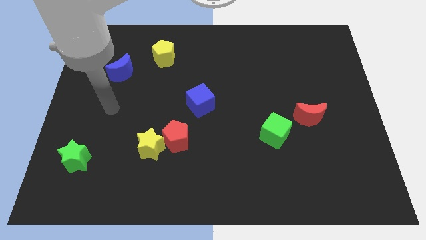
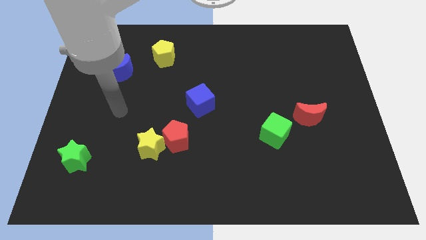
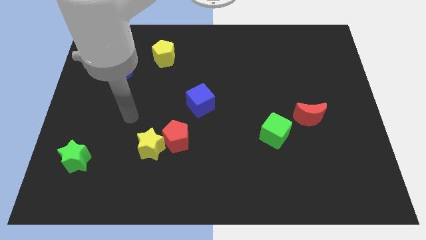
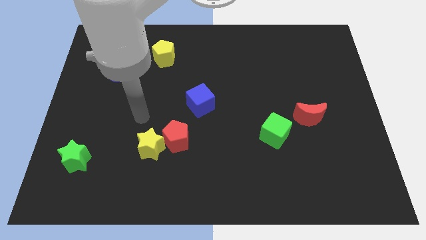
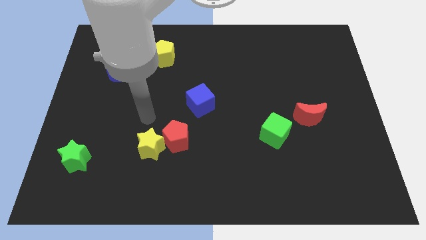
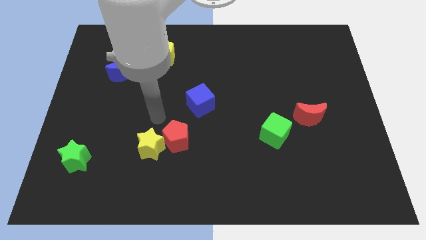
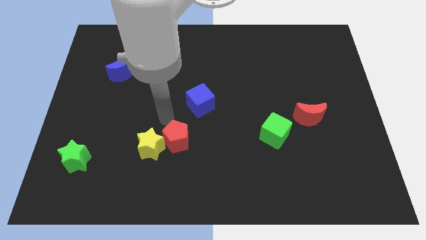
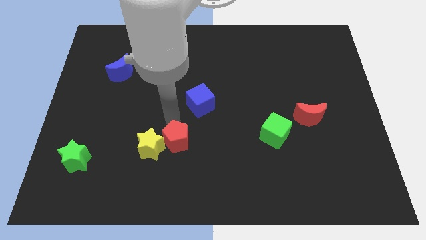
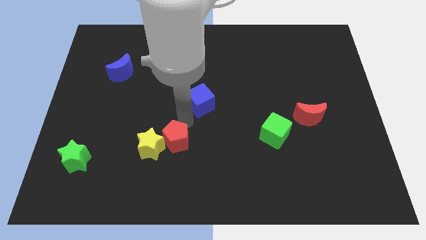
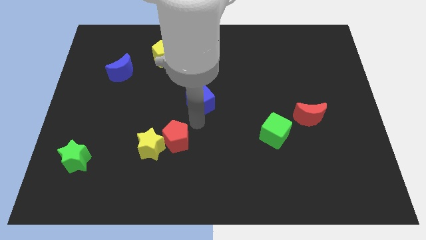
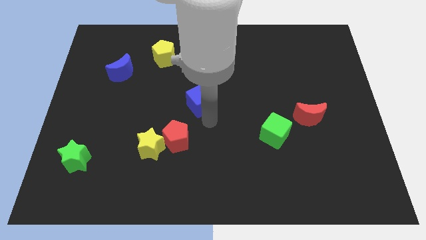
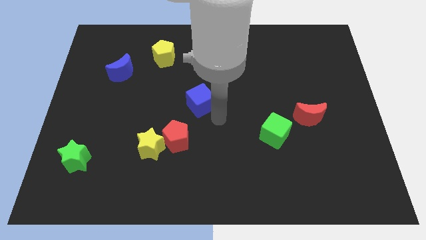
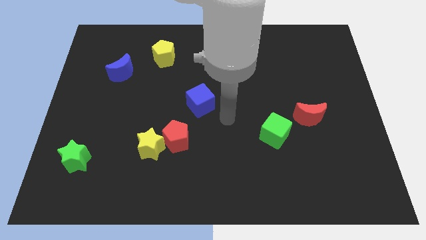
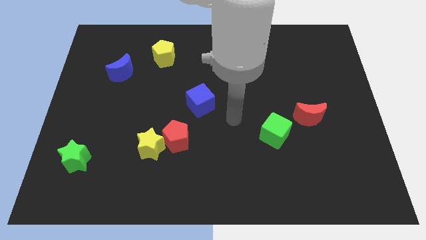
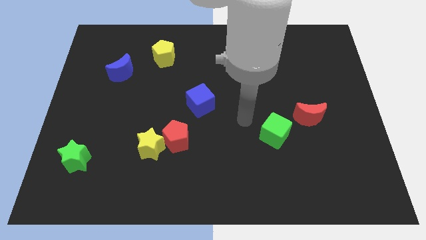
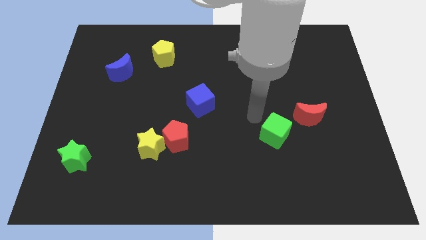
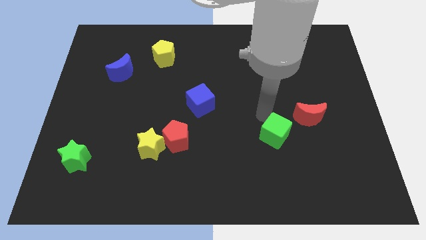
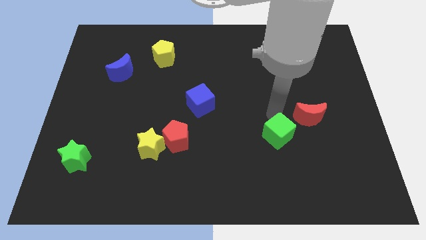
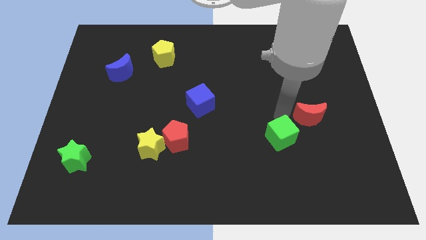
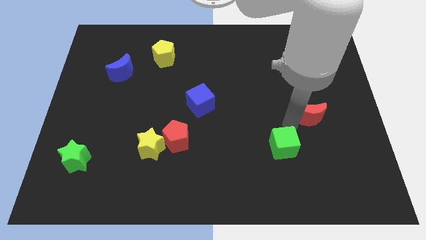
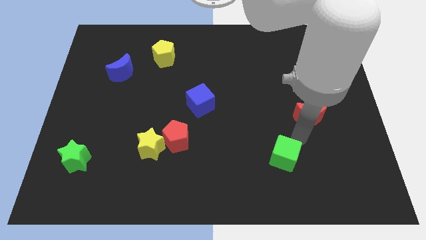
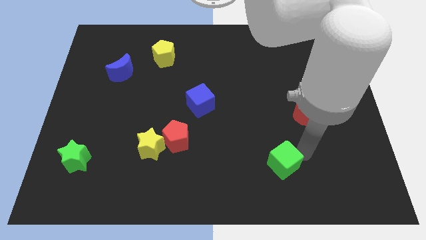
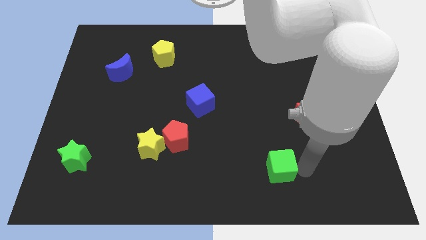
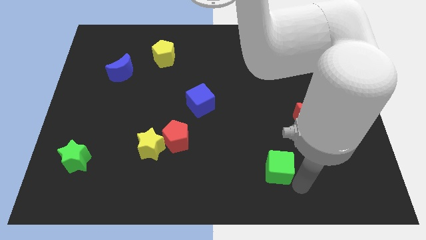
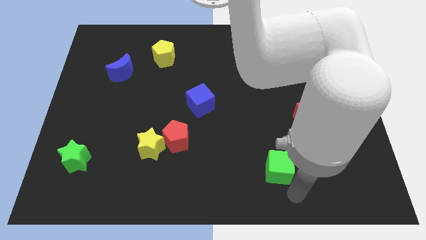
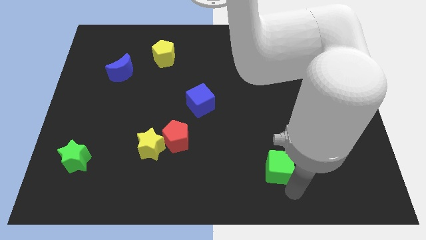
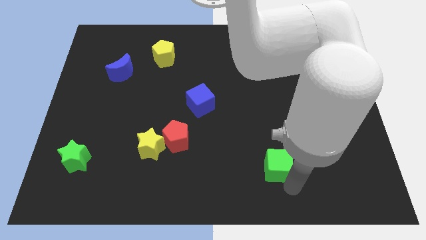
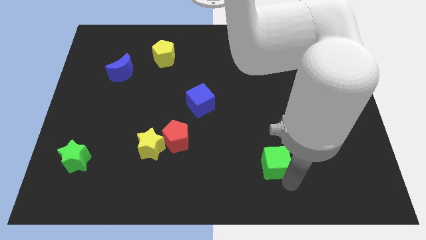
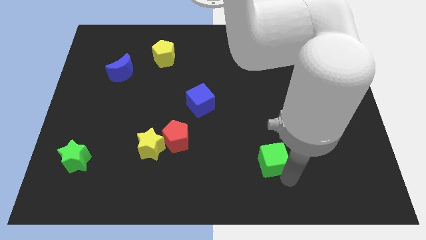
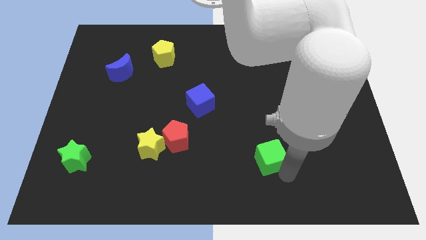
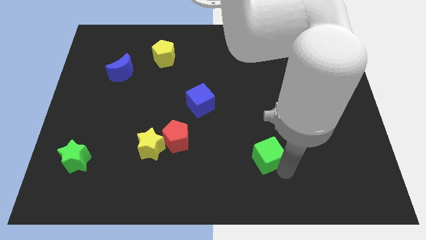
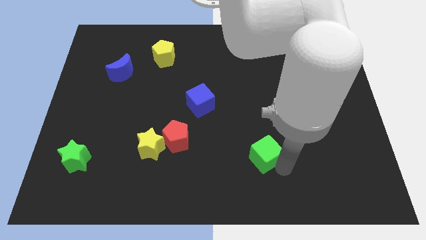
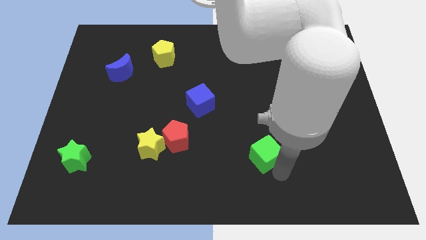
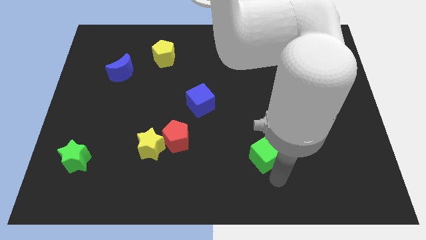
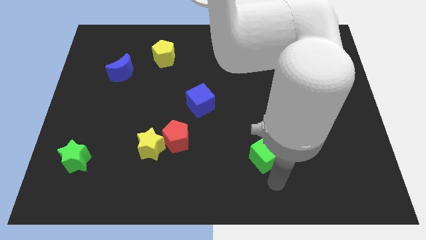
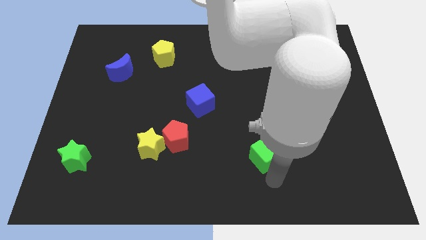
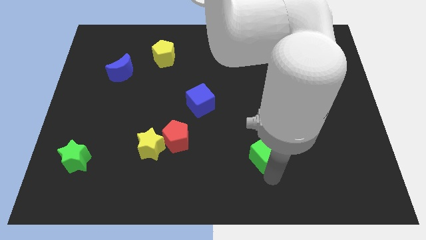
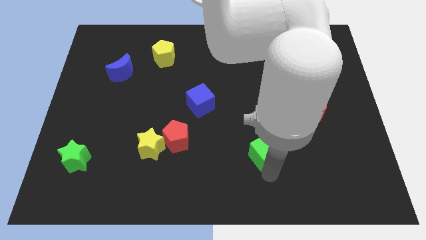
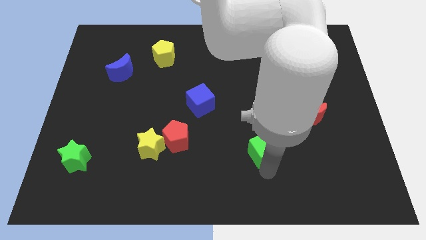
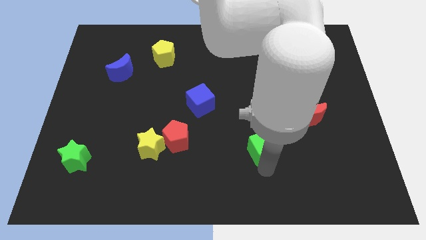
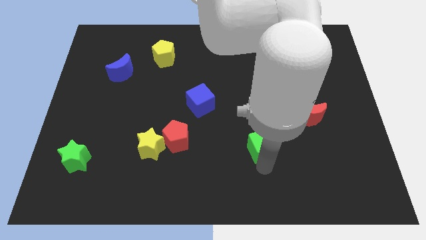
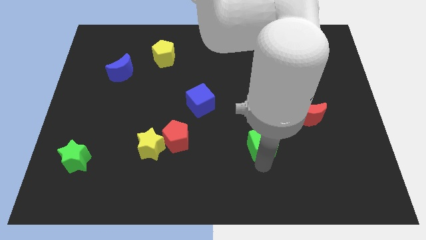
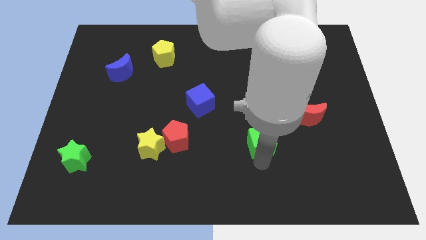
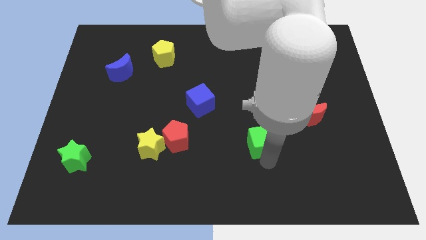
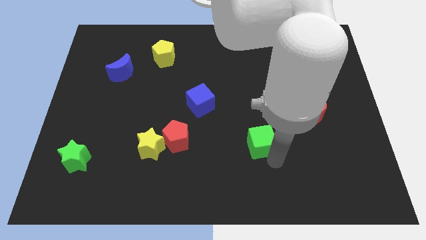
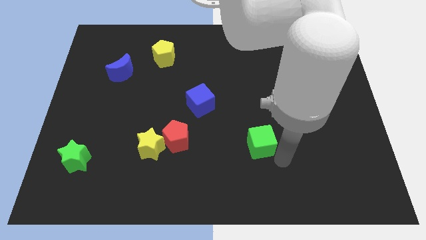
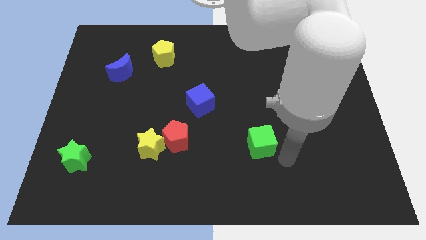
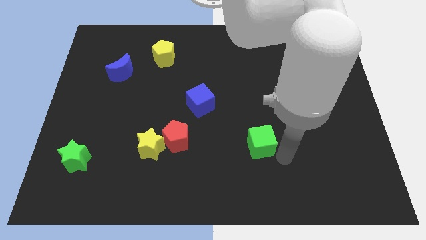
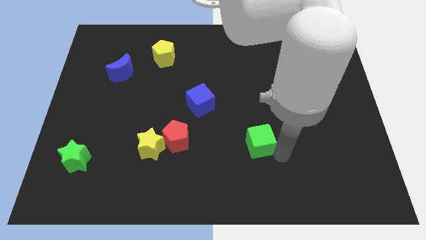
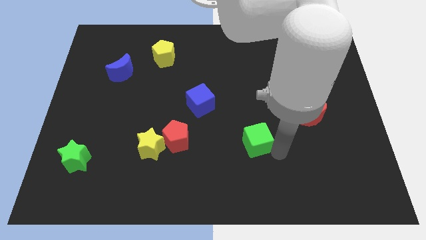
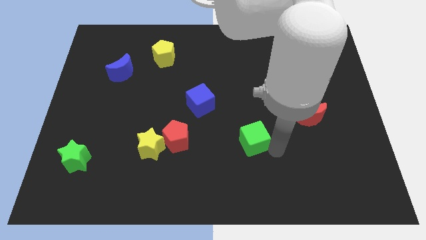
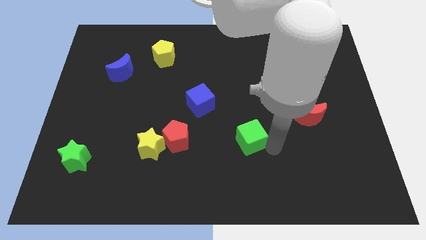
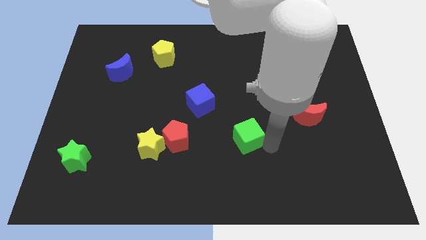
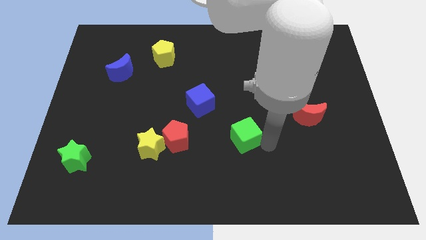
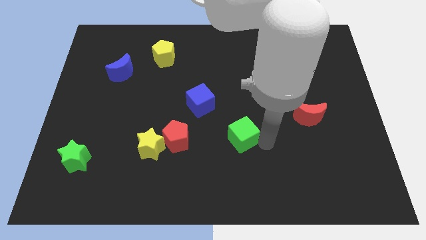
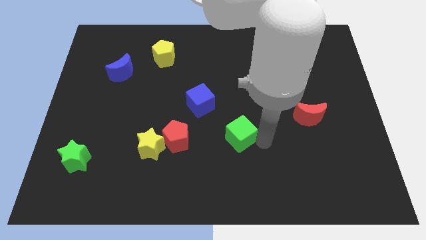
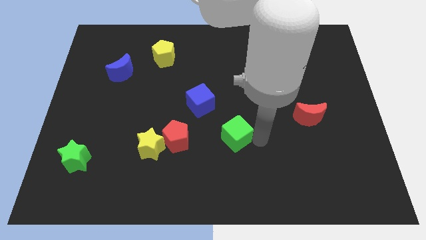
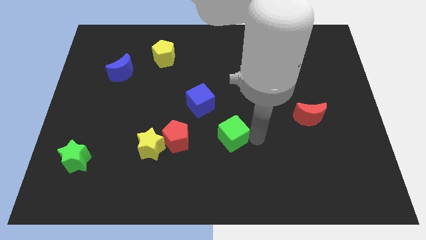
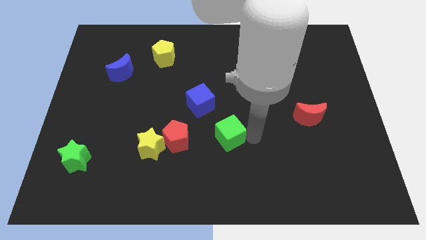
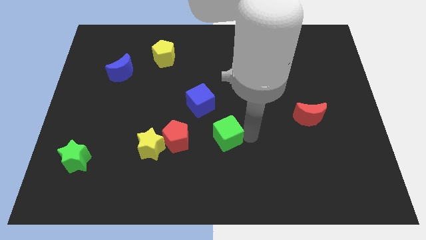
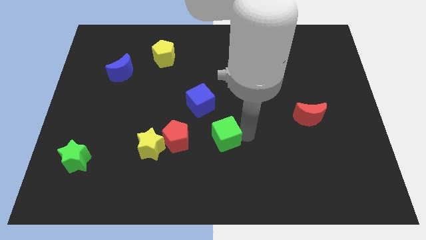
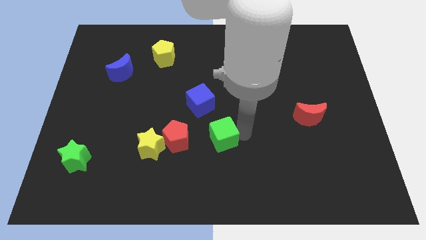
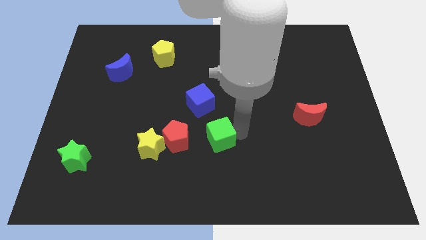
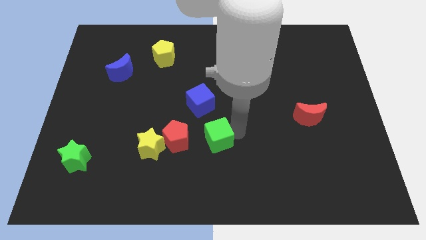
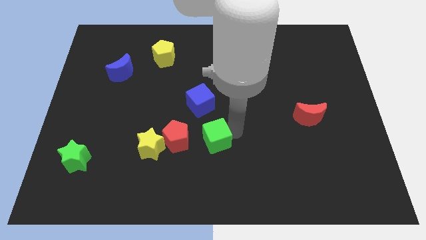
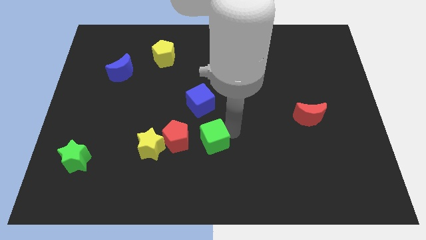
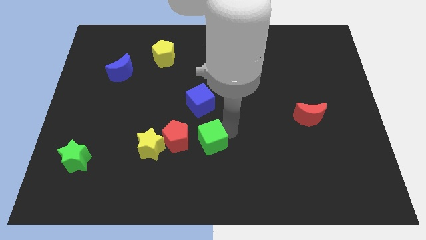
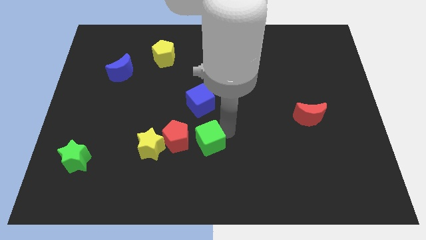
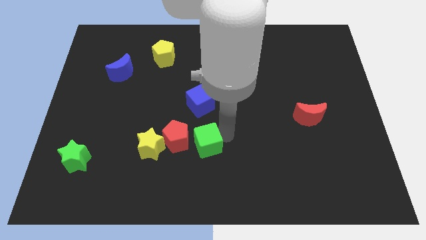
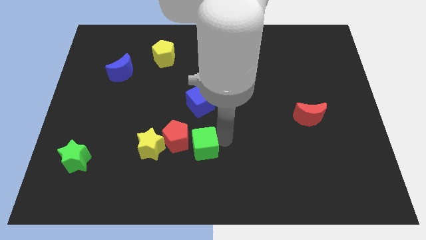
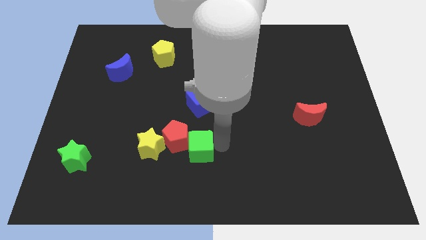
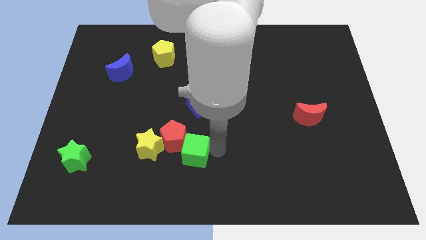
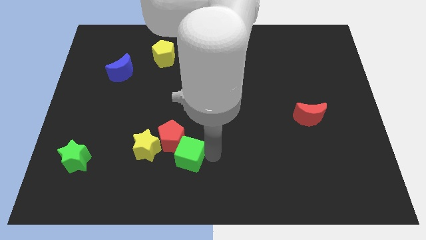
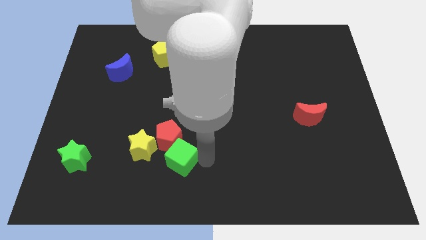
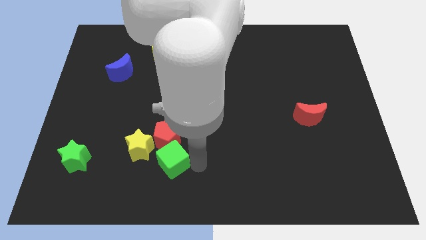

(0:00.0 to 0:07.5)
slide the green cube left

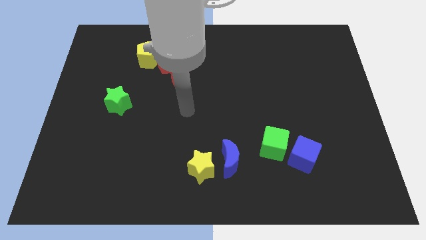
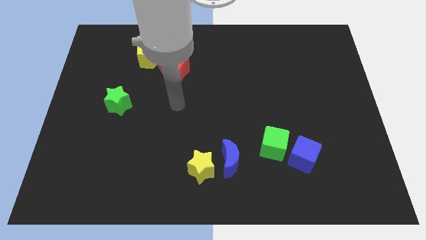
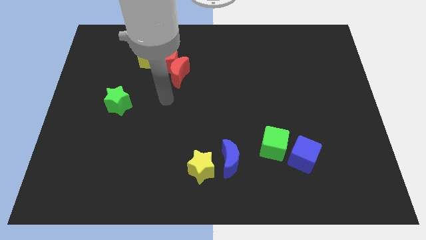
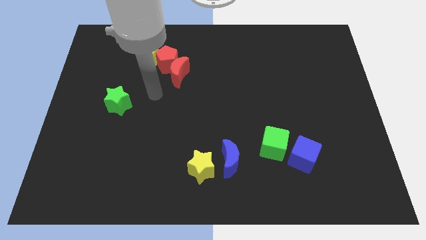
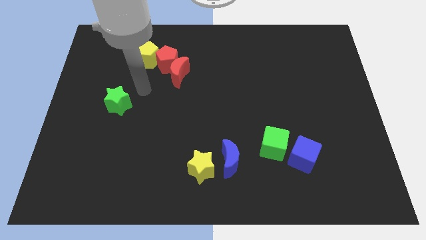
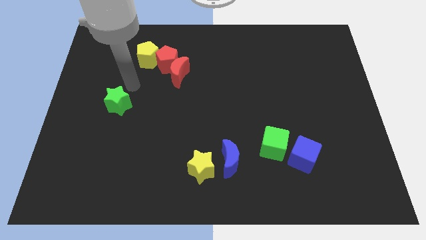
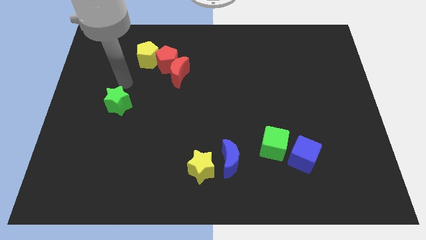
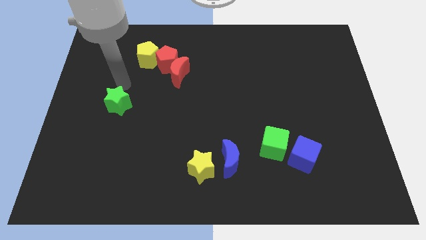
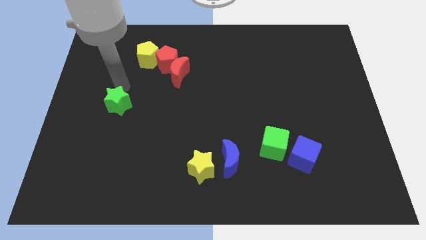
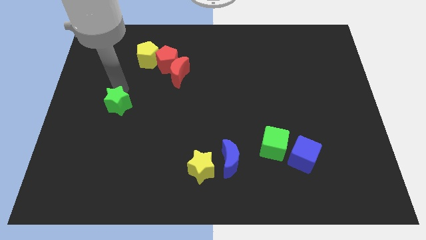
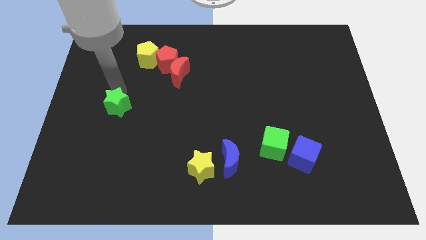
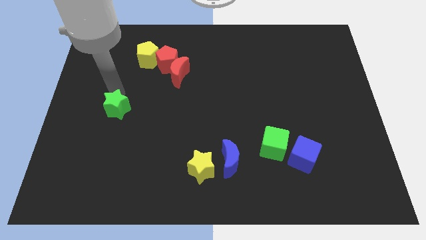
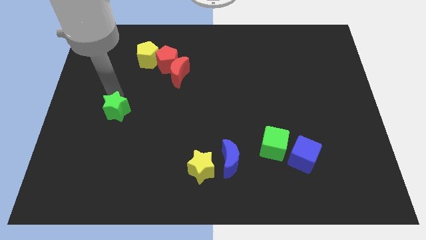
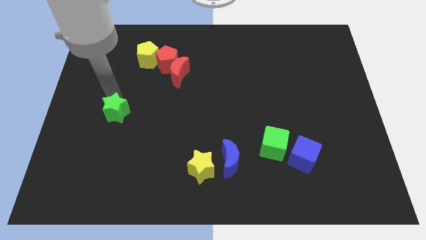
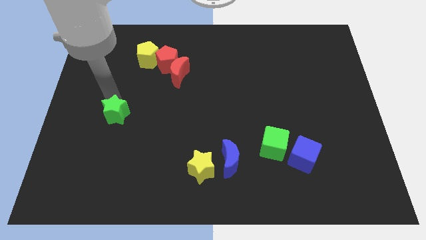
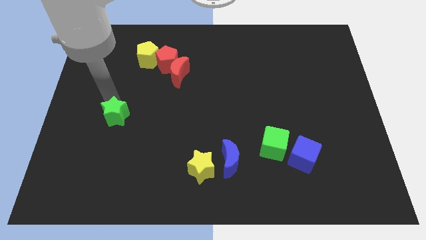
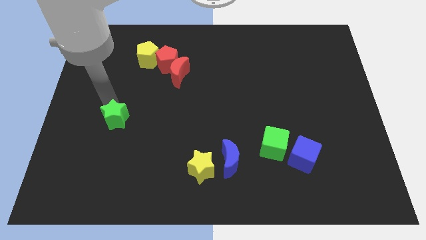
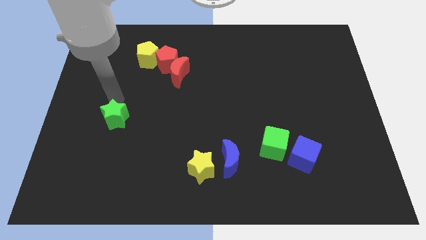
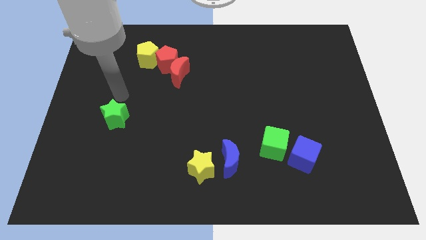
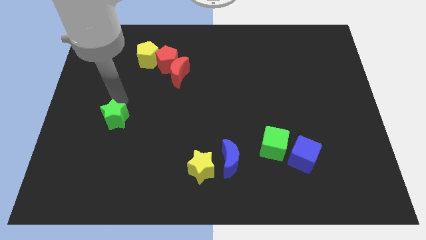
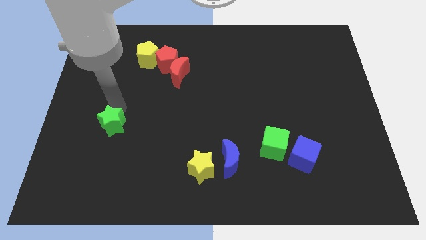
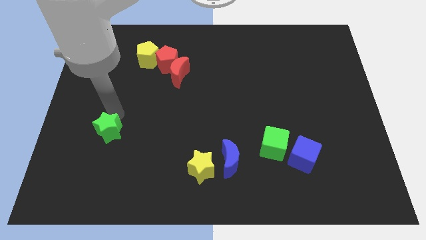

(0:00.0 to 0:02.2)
slide the green star slightly downwards
